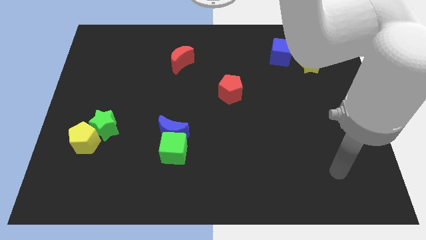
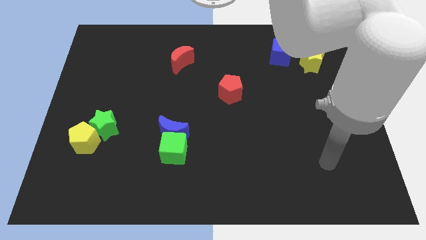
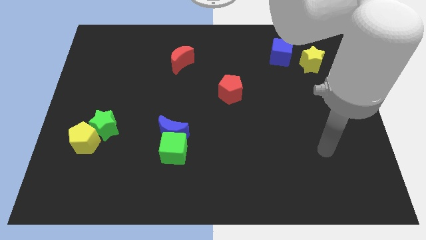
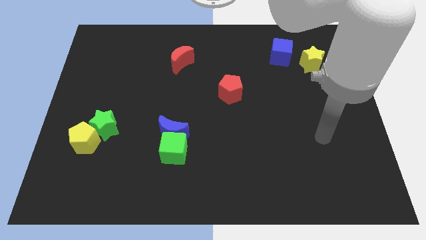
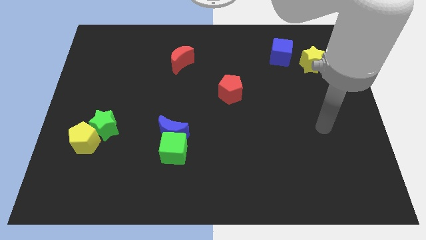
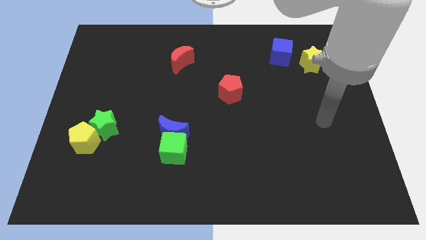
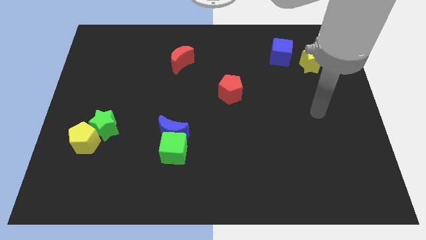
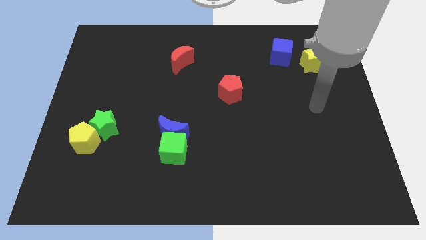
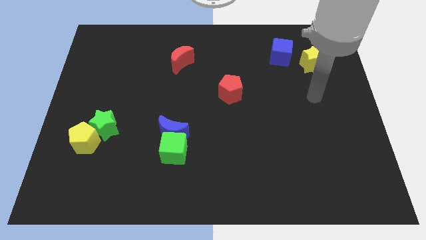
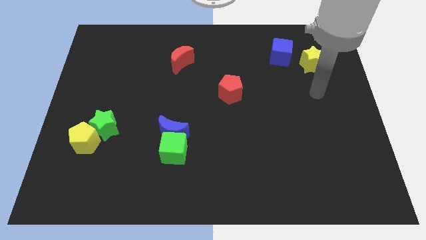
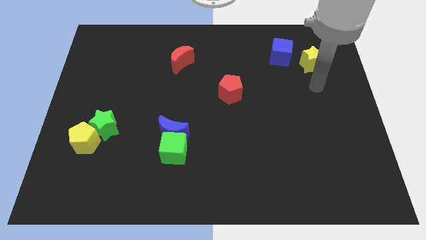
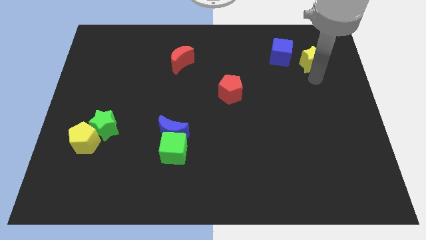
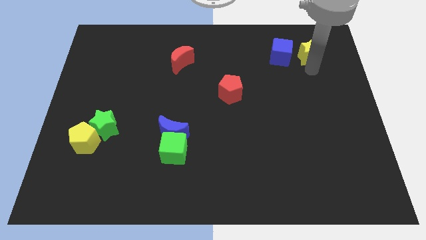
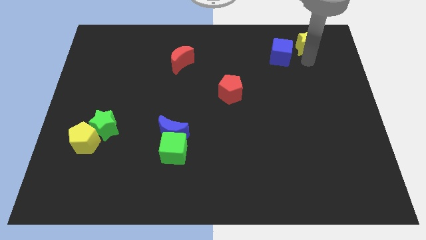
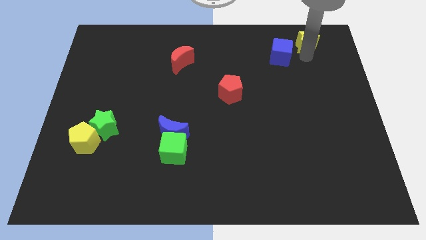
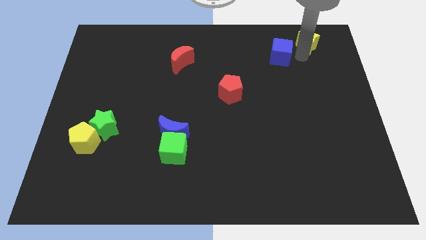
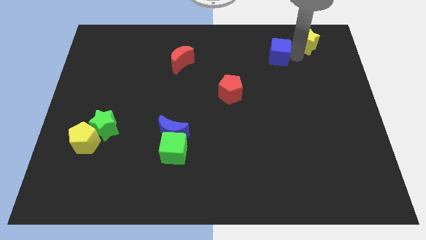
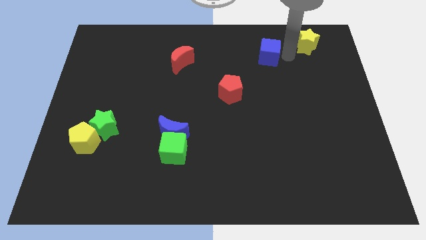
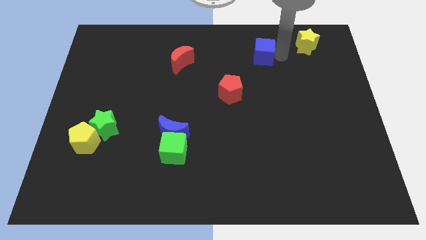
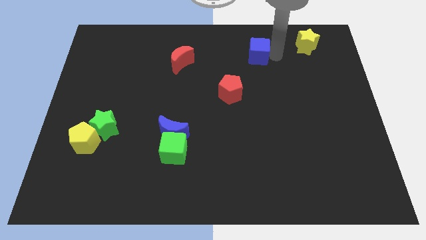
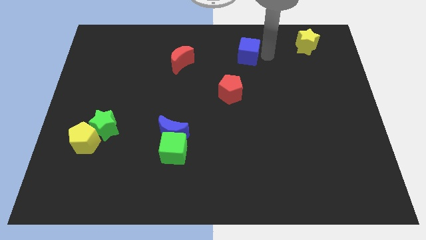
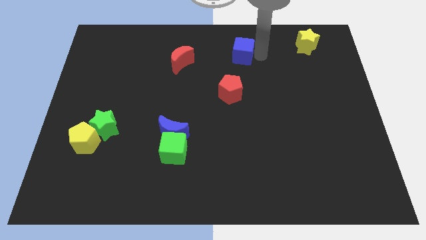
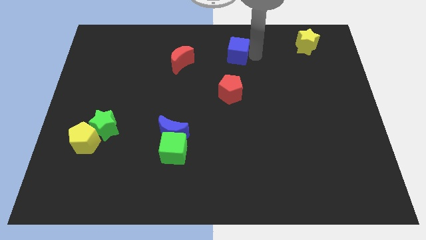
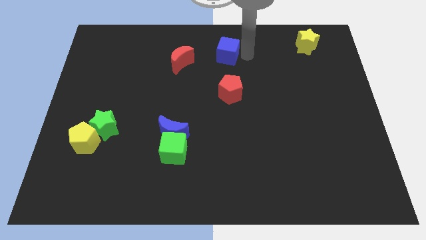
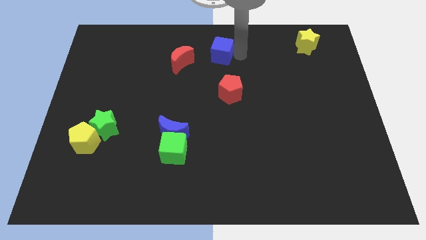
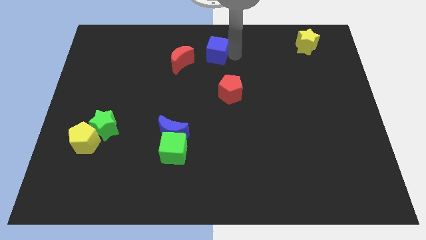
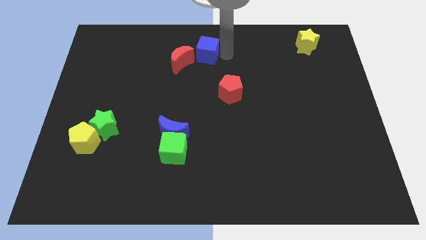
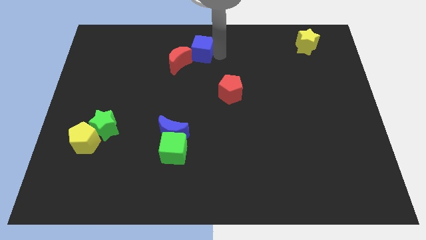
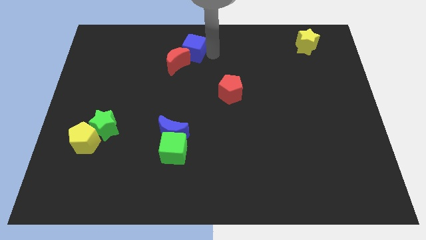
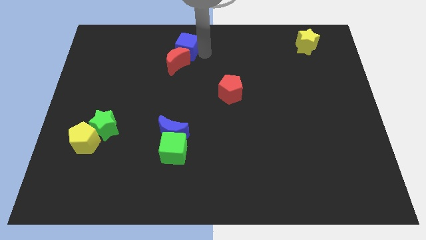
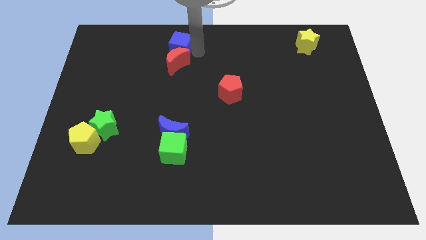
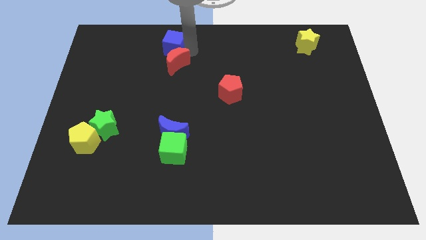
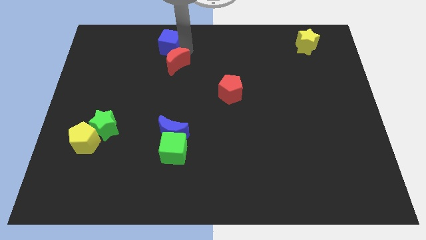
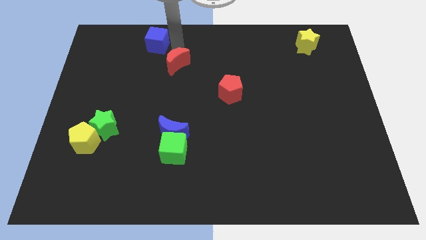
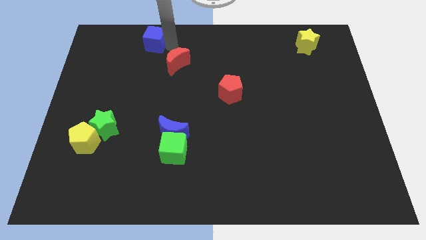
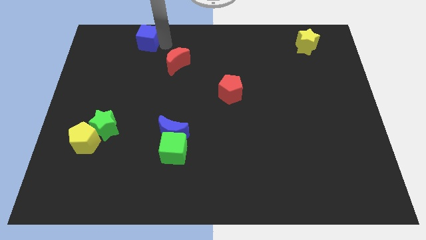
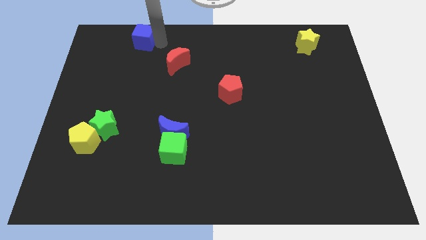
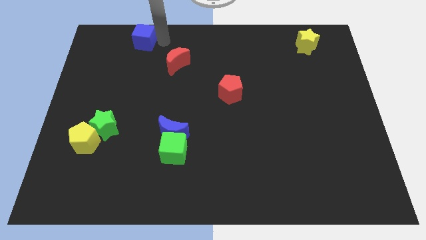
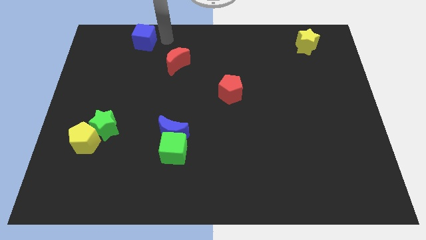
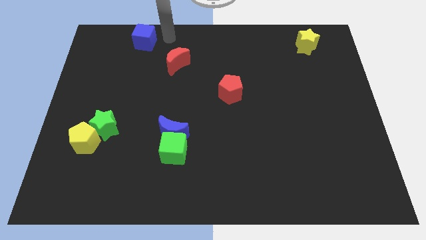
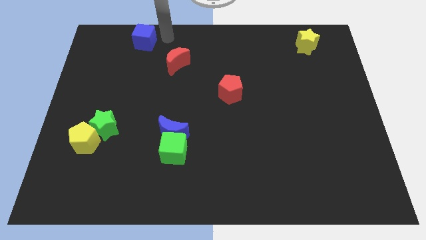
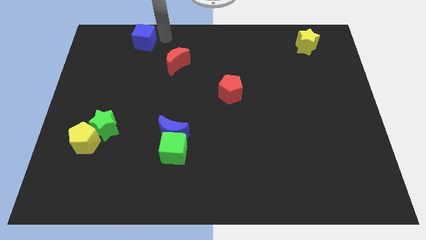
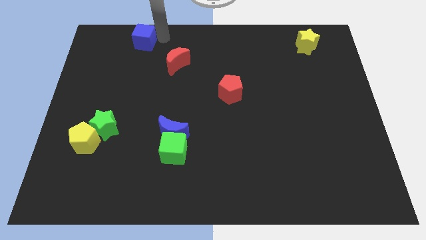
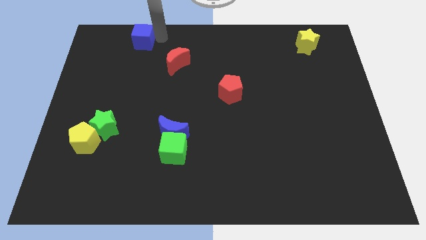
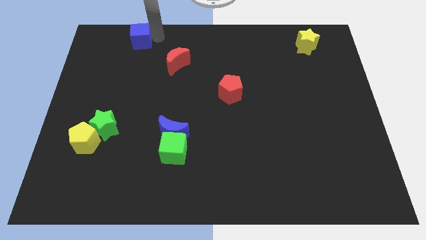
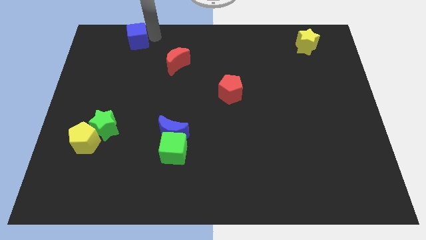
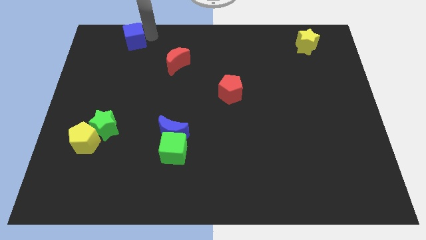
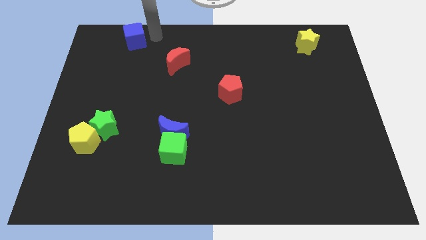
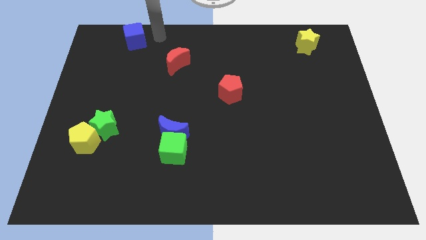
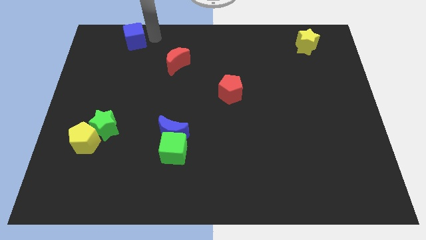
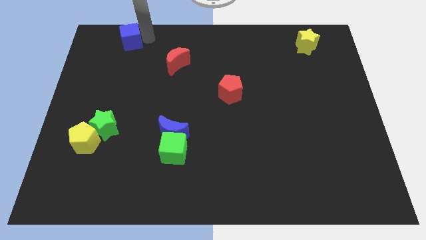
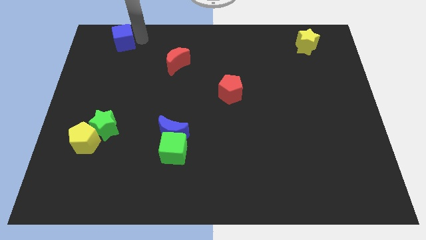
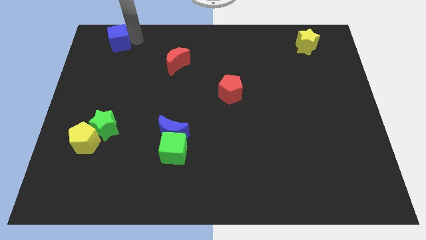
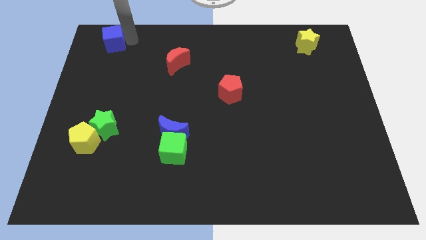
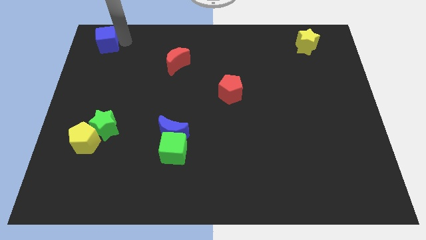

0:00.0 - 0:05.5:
put the blue cube to the top left corner

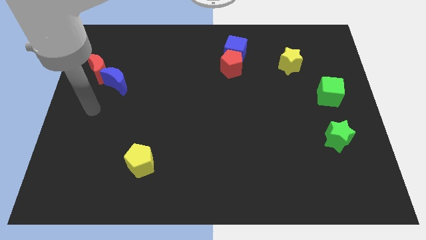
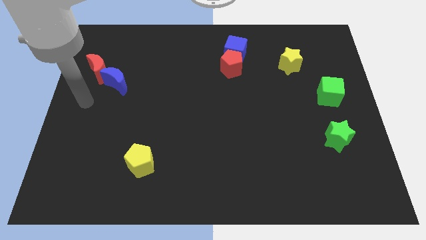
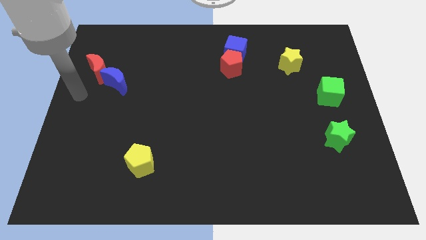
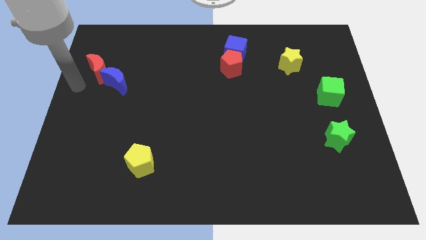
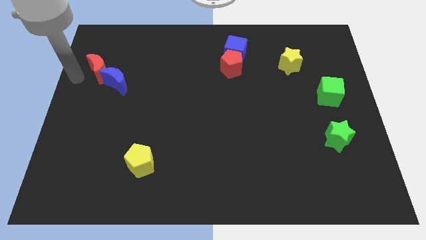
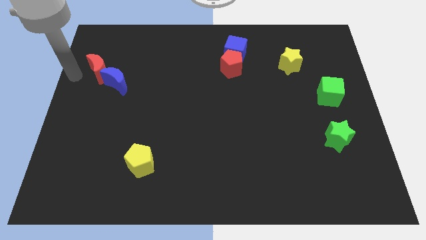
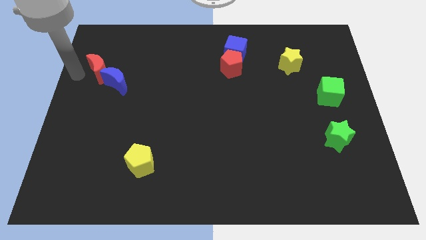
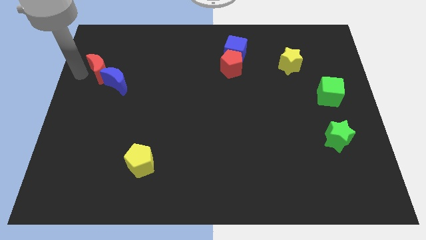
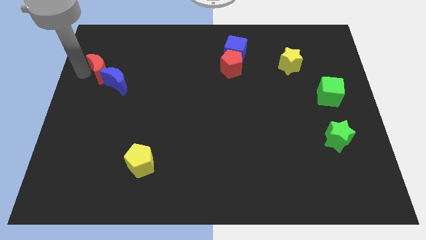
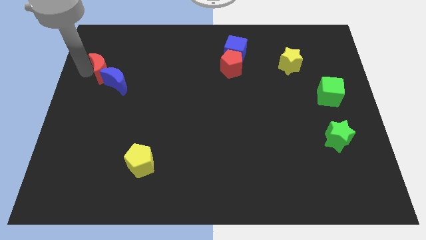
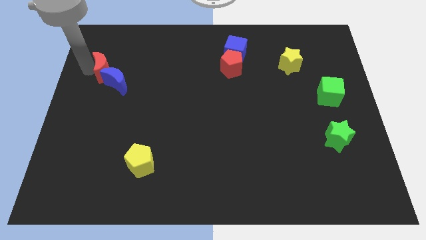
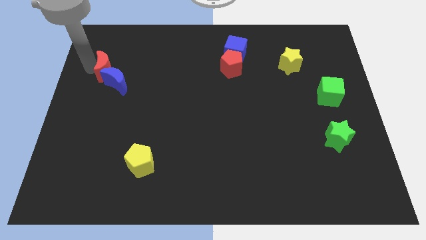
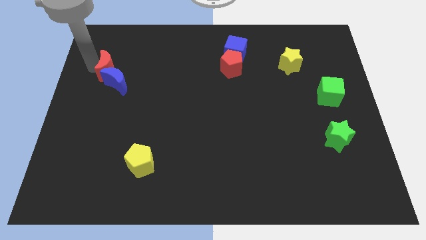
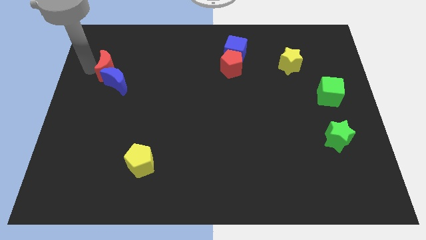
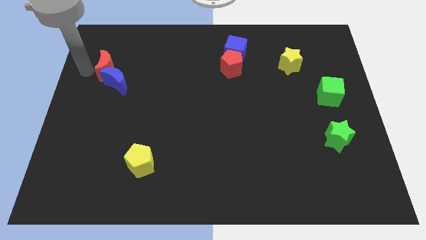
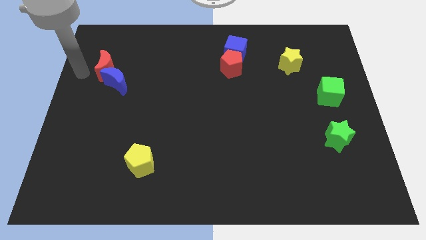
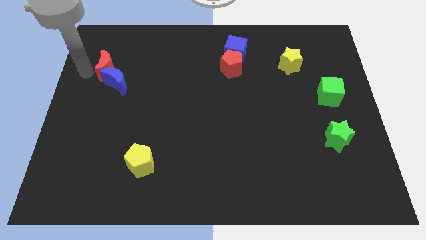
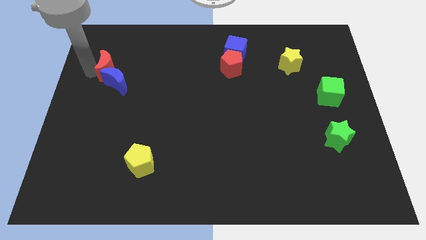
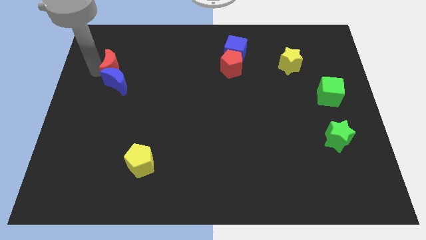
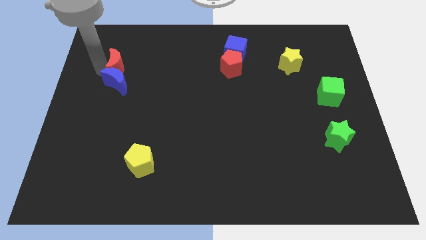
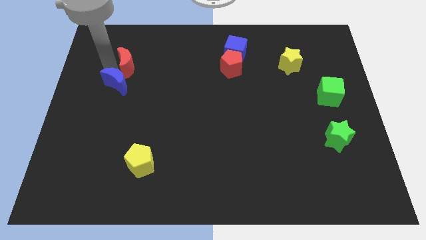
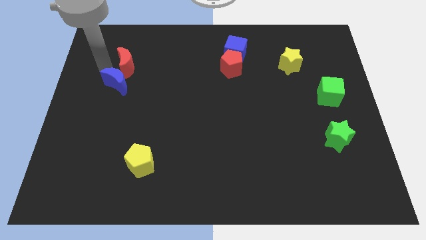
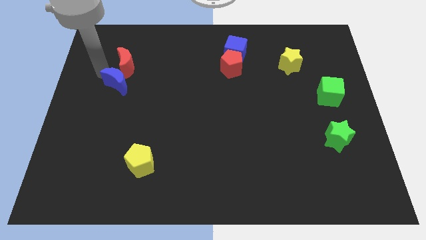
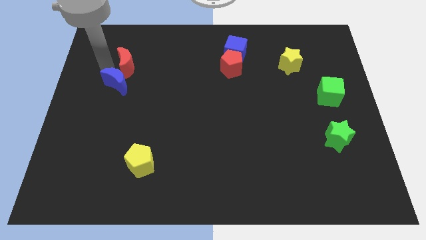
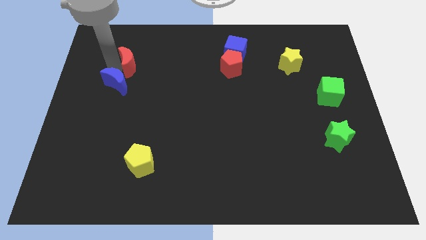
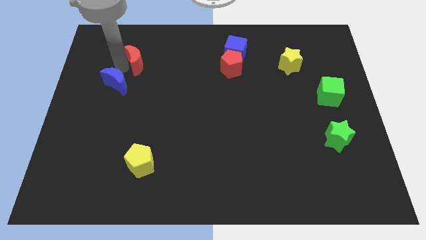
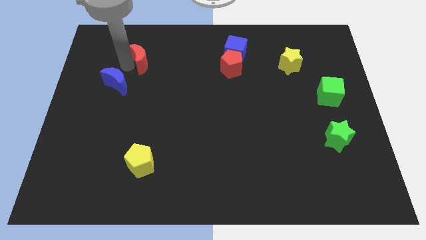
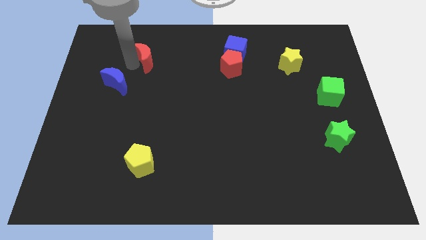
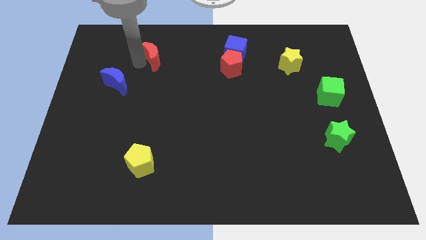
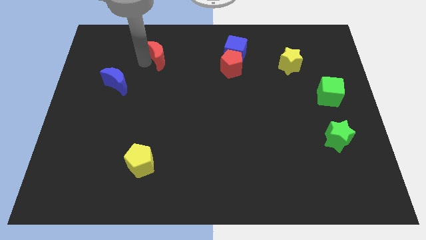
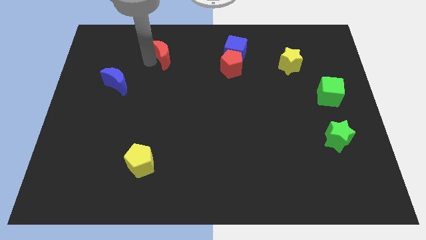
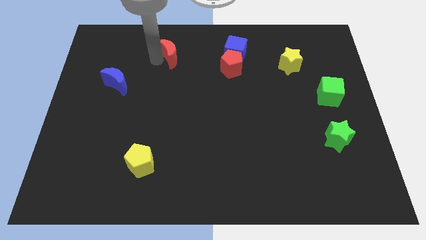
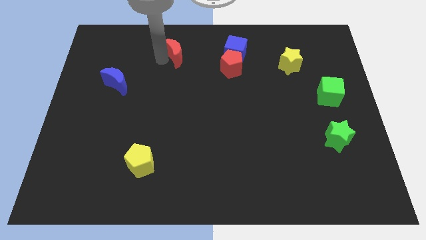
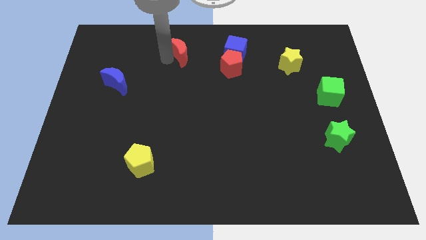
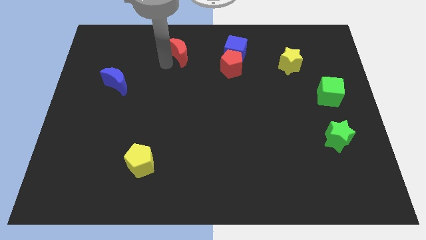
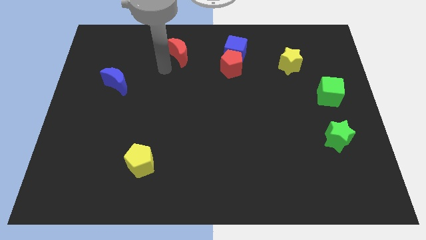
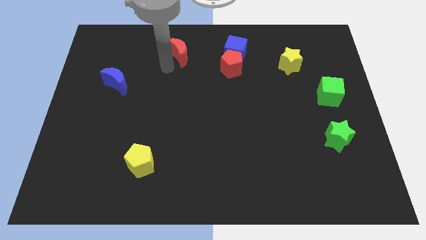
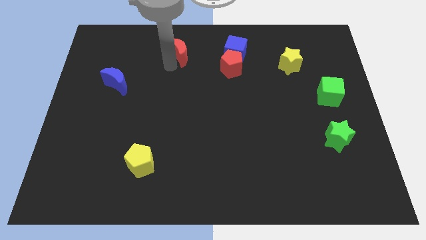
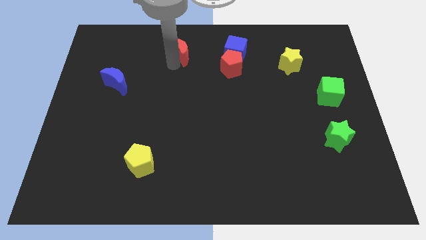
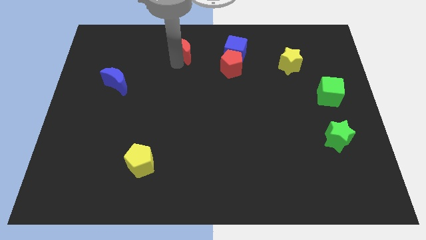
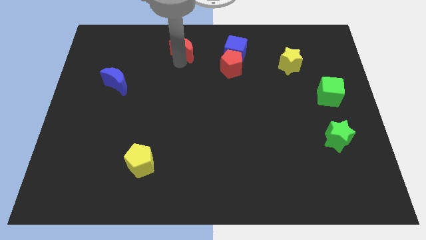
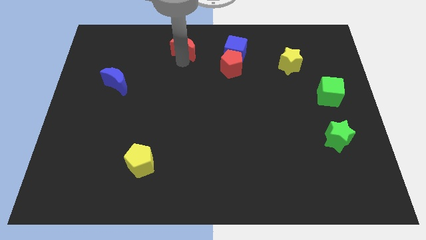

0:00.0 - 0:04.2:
slide the red moon to the top
